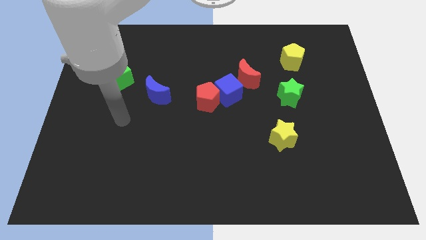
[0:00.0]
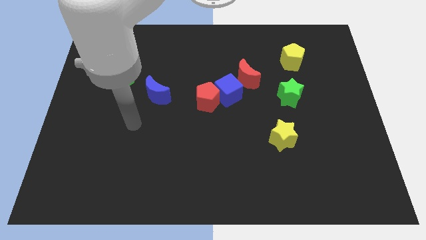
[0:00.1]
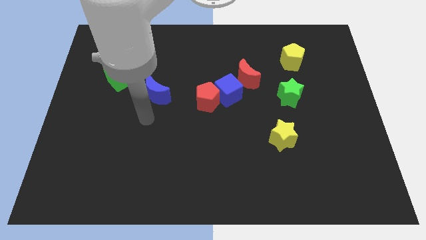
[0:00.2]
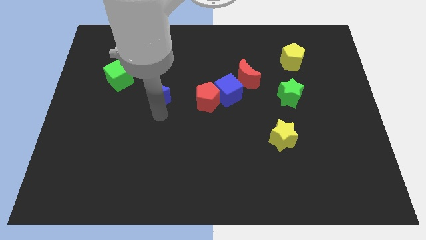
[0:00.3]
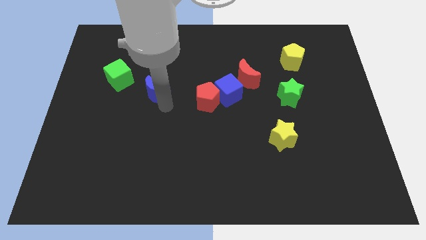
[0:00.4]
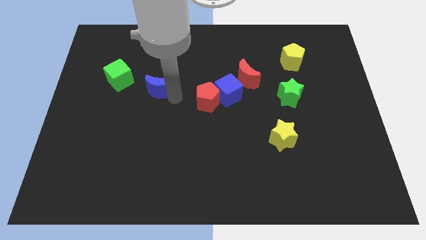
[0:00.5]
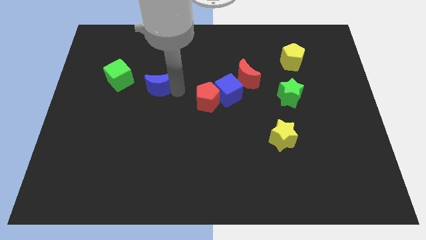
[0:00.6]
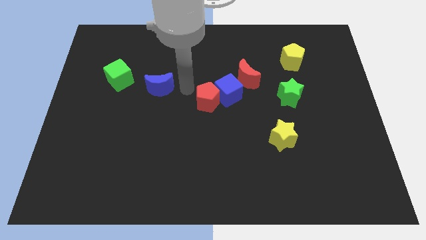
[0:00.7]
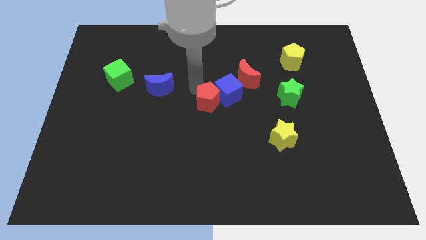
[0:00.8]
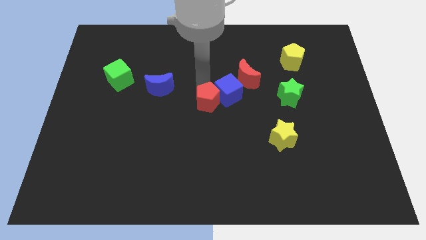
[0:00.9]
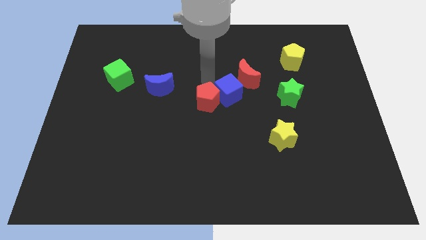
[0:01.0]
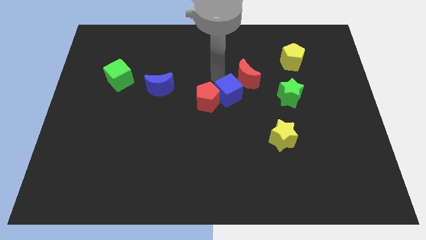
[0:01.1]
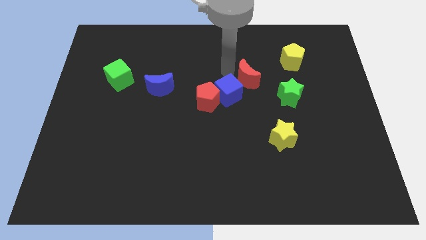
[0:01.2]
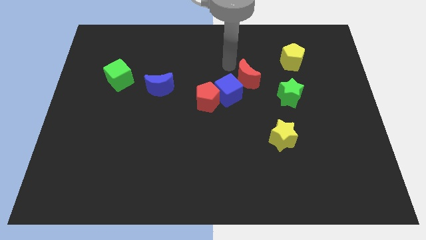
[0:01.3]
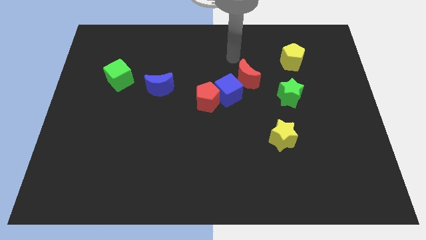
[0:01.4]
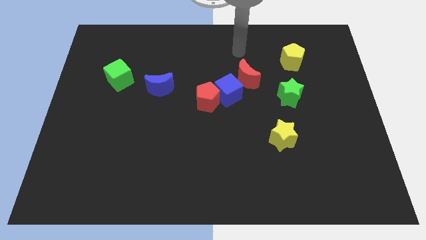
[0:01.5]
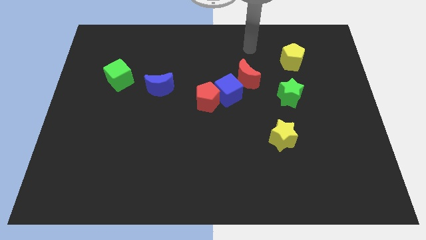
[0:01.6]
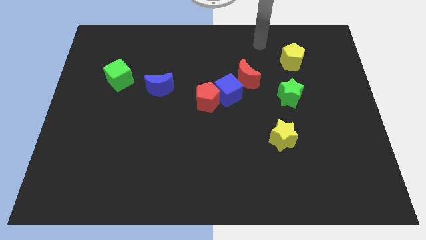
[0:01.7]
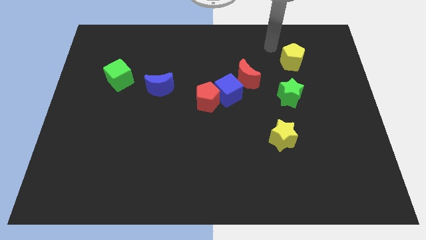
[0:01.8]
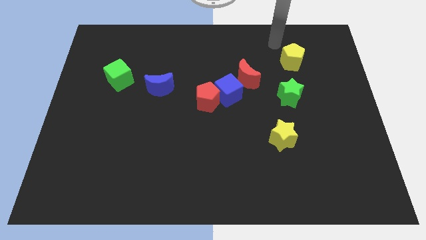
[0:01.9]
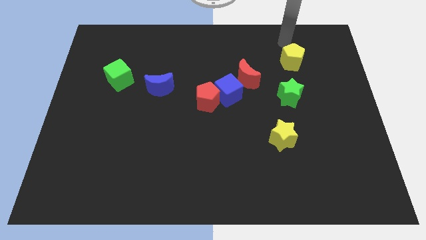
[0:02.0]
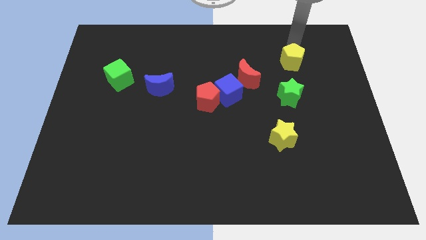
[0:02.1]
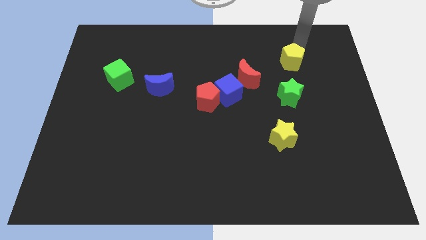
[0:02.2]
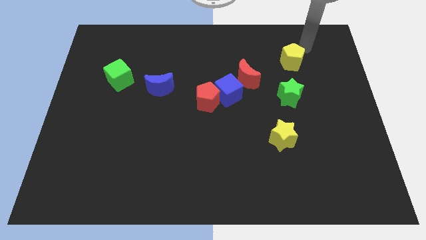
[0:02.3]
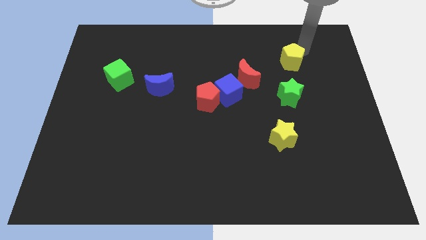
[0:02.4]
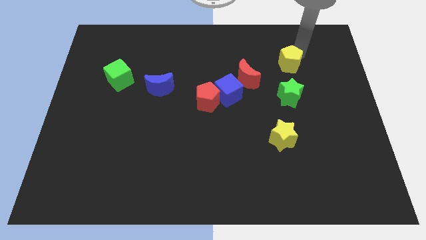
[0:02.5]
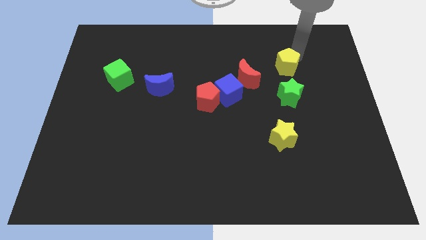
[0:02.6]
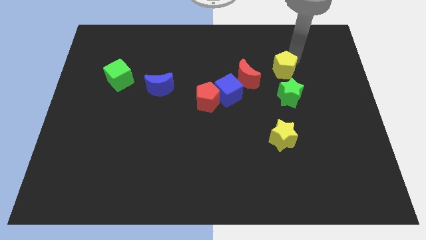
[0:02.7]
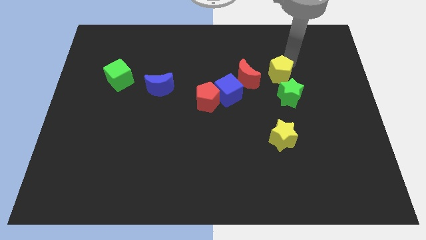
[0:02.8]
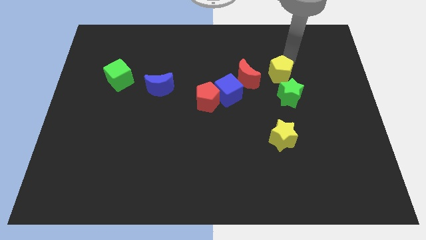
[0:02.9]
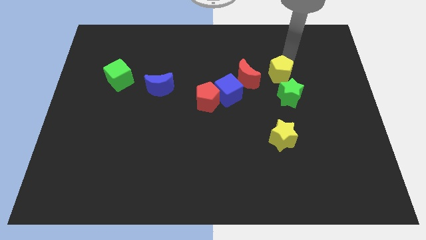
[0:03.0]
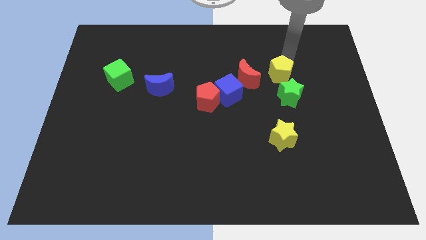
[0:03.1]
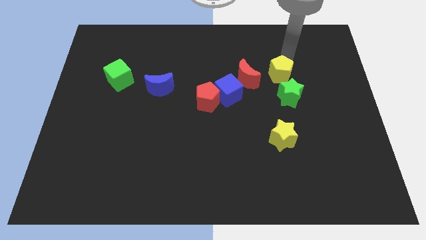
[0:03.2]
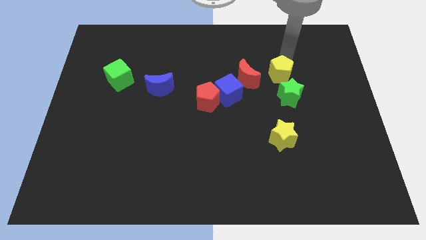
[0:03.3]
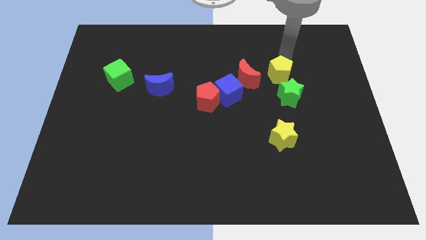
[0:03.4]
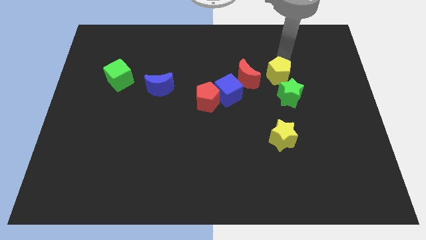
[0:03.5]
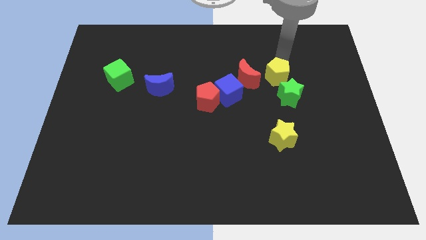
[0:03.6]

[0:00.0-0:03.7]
push the yellow pentagon down and to the left diagonally somewhat

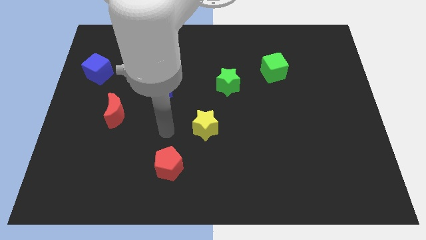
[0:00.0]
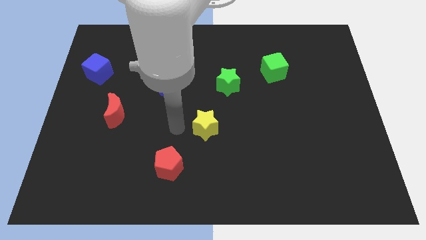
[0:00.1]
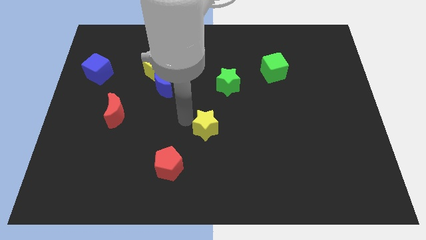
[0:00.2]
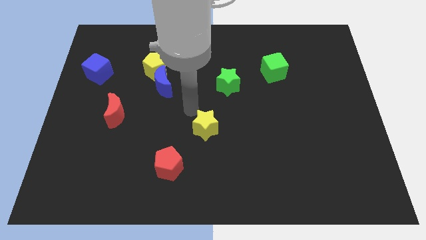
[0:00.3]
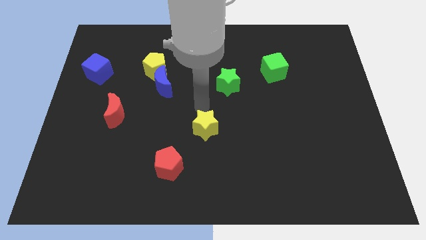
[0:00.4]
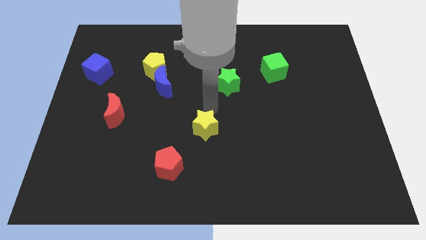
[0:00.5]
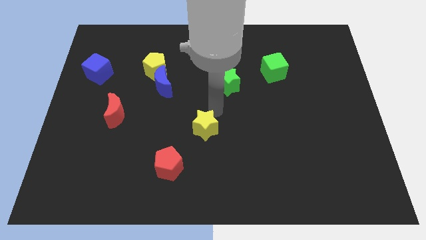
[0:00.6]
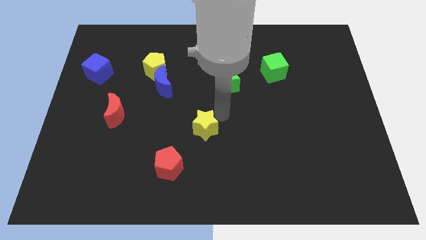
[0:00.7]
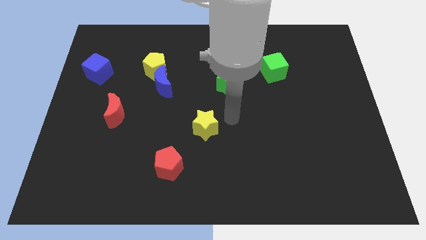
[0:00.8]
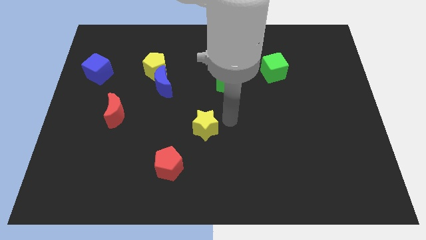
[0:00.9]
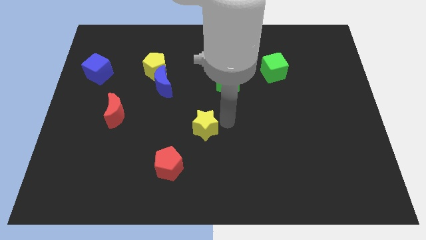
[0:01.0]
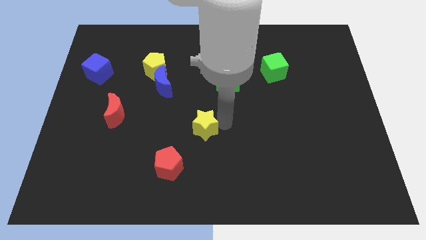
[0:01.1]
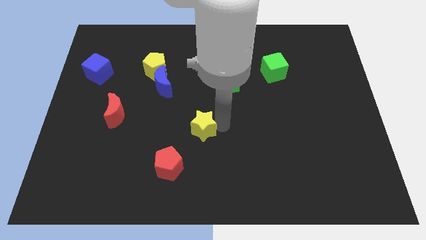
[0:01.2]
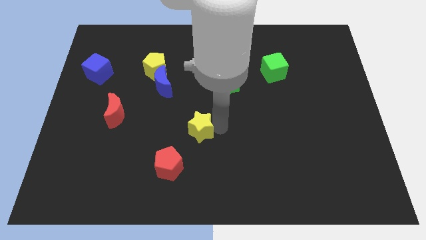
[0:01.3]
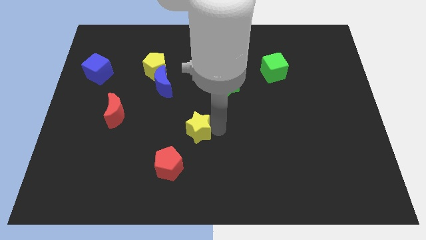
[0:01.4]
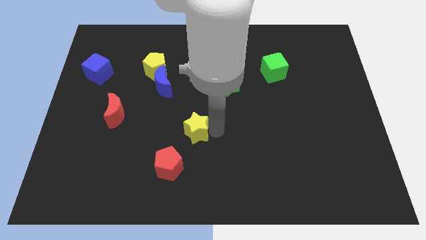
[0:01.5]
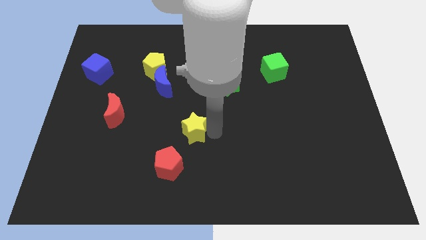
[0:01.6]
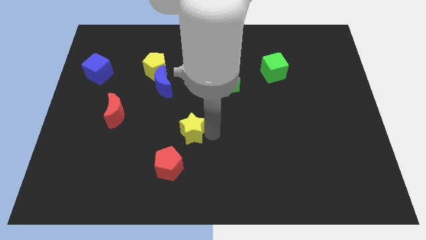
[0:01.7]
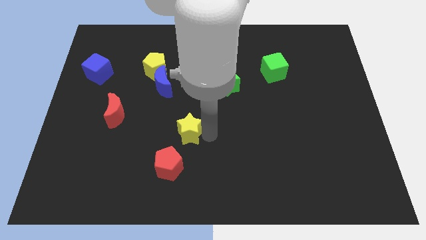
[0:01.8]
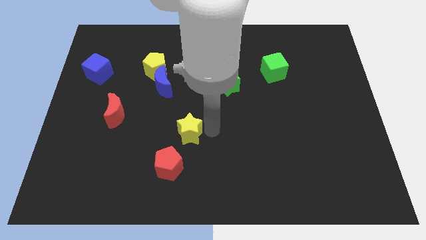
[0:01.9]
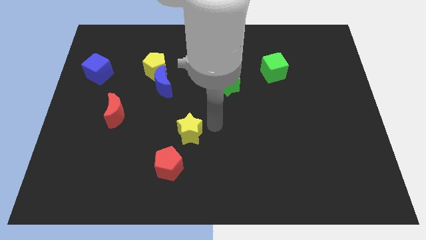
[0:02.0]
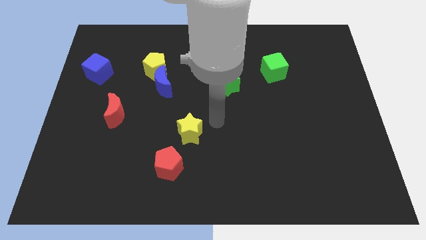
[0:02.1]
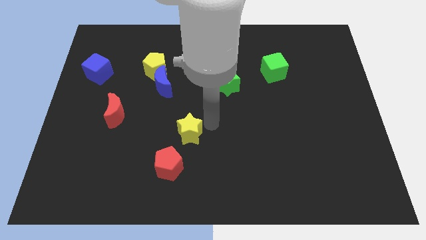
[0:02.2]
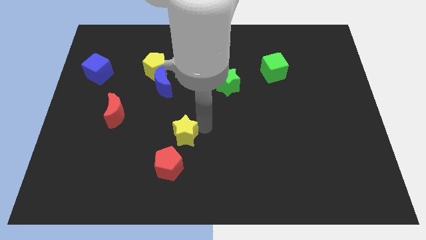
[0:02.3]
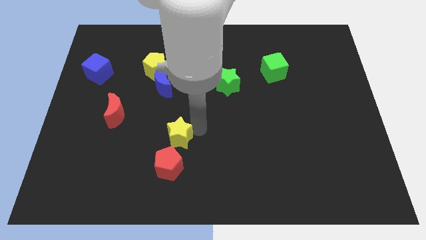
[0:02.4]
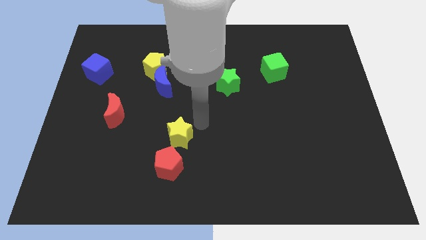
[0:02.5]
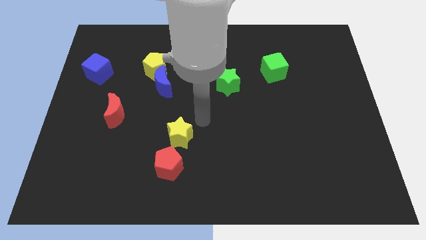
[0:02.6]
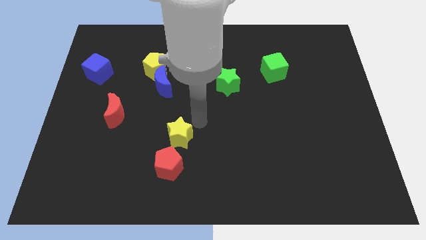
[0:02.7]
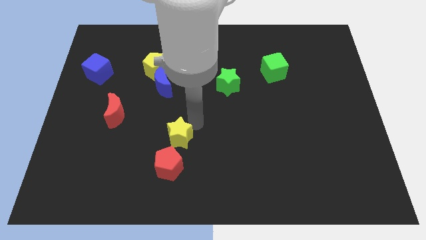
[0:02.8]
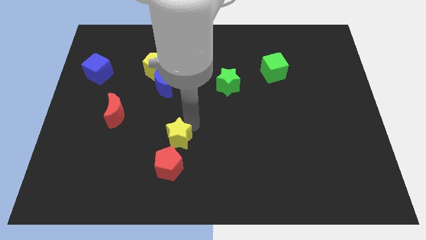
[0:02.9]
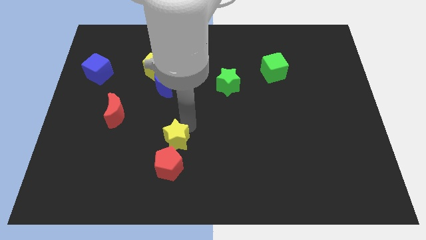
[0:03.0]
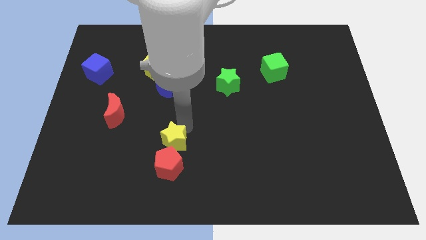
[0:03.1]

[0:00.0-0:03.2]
push the yellow star a little diagonally down and to the left

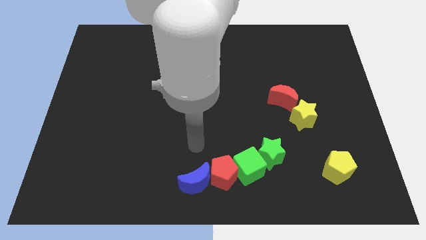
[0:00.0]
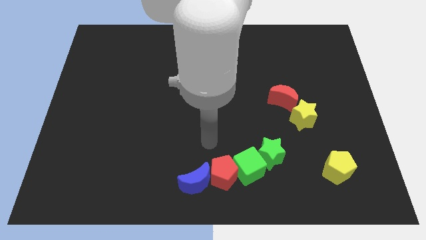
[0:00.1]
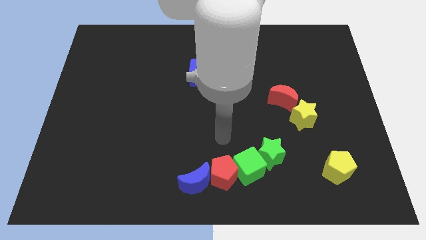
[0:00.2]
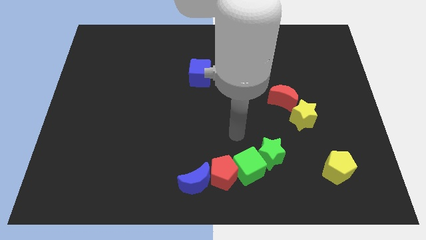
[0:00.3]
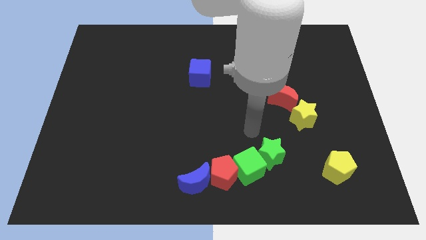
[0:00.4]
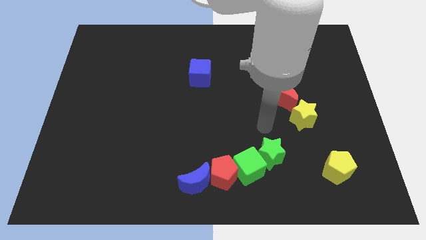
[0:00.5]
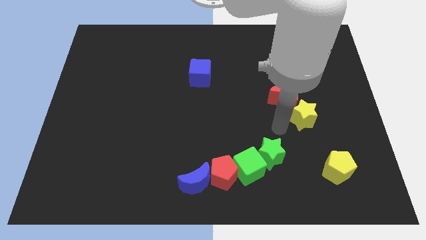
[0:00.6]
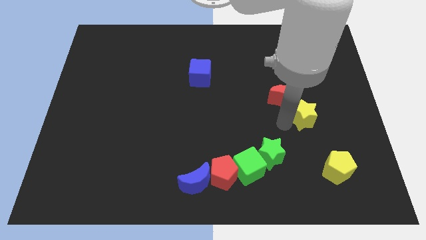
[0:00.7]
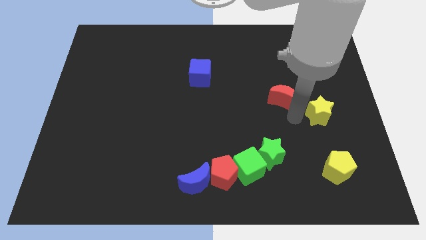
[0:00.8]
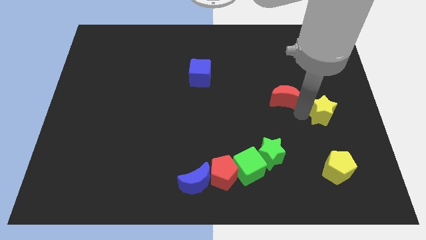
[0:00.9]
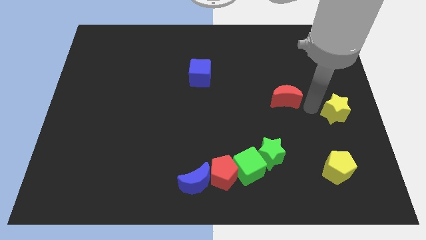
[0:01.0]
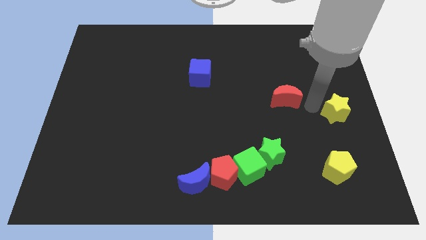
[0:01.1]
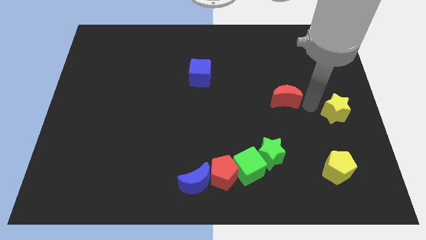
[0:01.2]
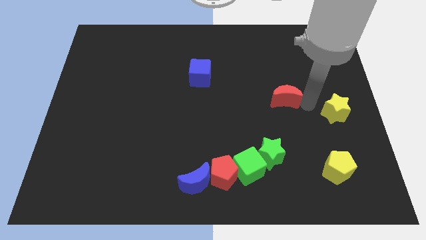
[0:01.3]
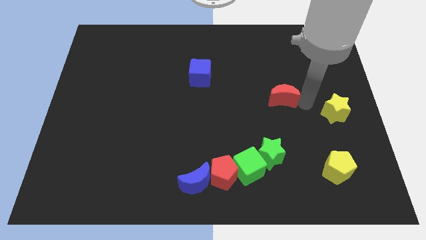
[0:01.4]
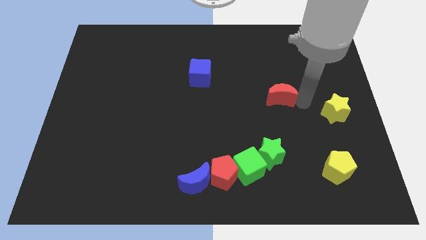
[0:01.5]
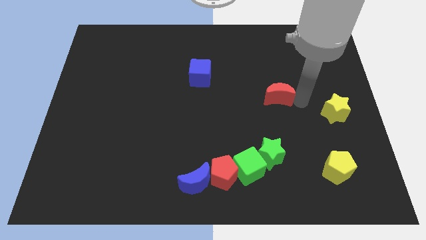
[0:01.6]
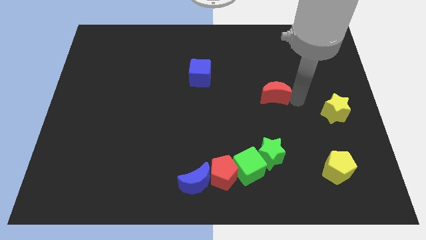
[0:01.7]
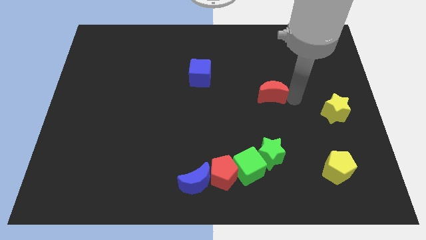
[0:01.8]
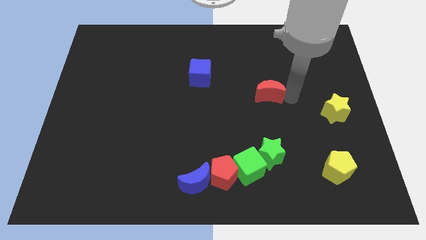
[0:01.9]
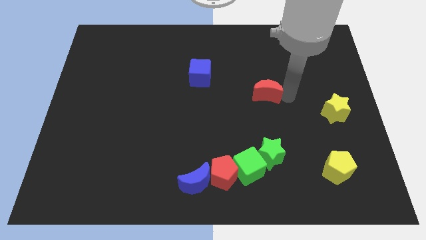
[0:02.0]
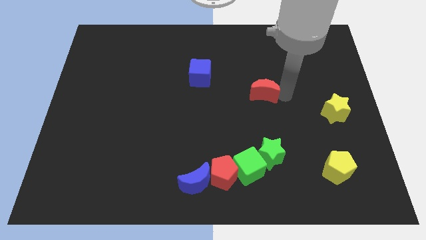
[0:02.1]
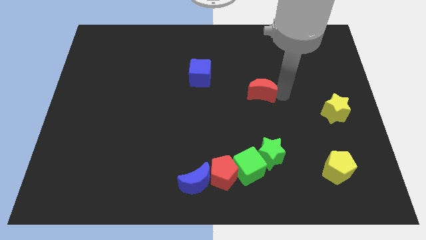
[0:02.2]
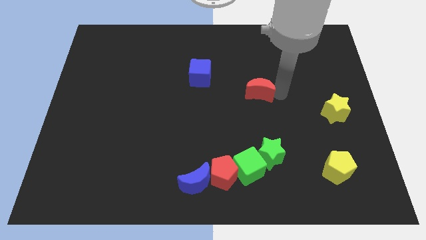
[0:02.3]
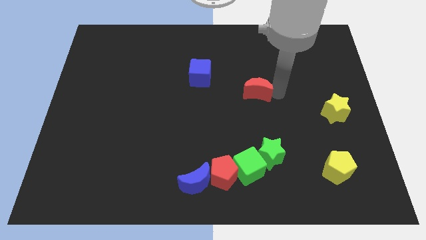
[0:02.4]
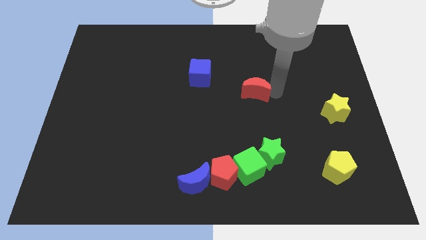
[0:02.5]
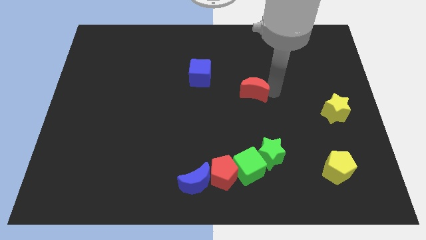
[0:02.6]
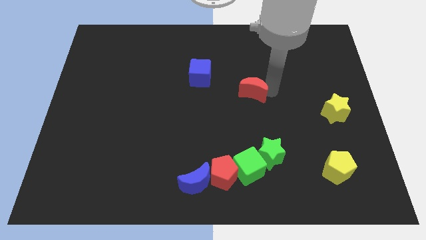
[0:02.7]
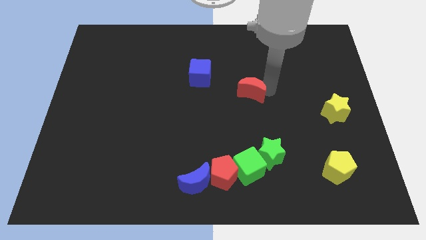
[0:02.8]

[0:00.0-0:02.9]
slightly push the red moon diagonally up and to the left
